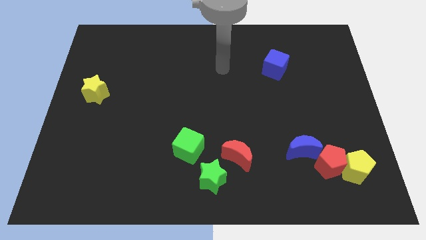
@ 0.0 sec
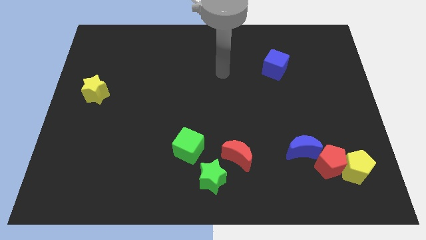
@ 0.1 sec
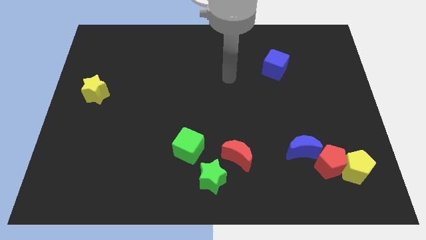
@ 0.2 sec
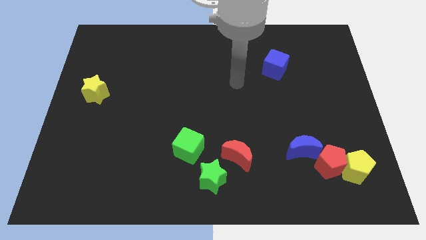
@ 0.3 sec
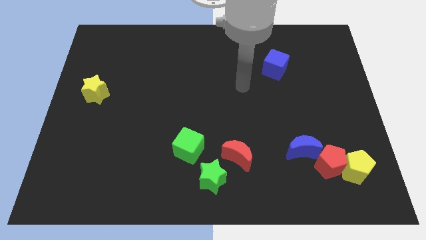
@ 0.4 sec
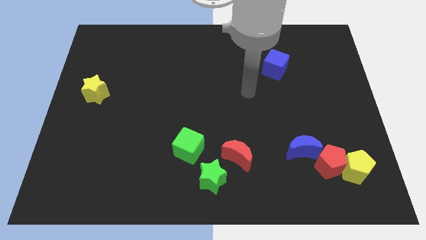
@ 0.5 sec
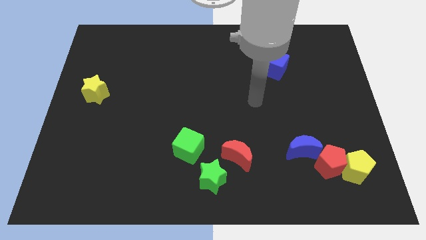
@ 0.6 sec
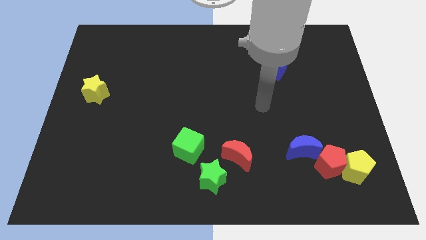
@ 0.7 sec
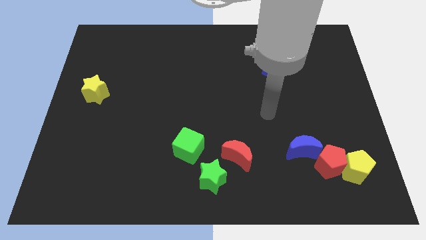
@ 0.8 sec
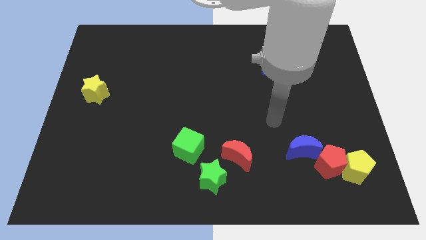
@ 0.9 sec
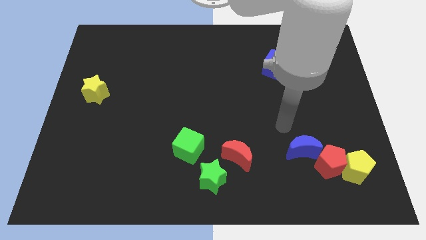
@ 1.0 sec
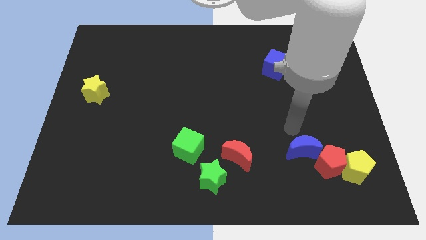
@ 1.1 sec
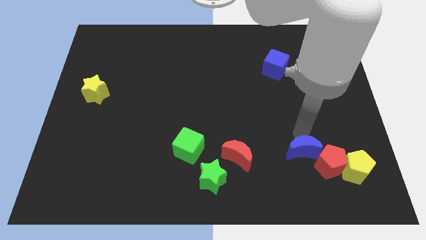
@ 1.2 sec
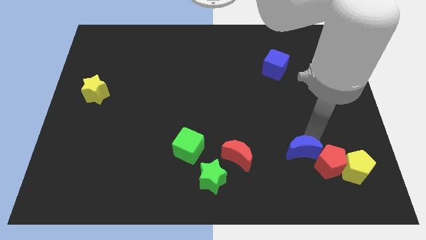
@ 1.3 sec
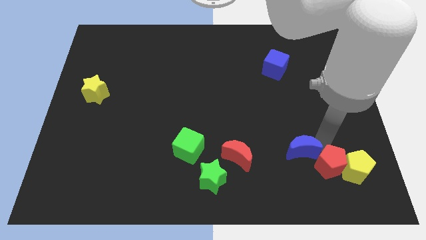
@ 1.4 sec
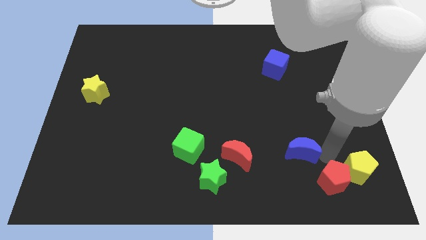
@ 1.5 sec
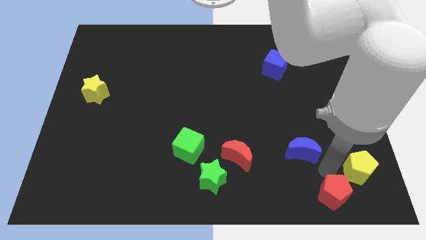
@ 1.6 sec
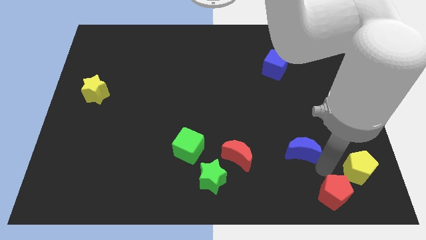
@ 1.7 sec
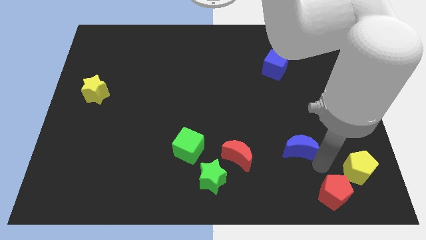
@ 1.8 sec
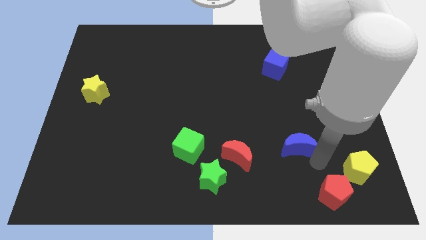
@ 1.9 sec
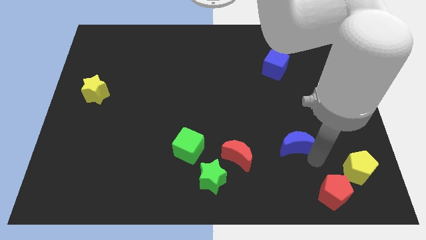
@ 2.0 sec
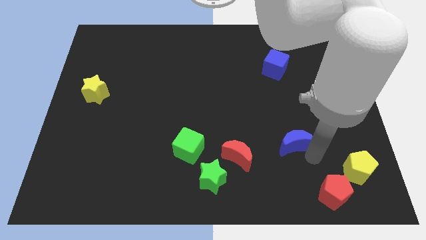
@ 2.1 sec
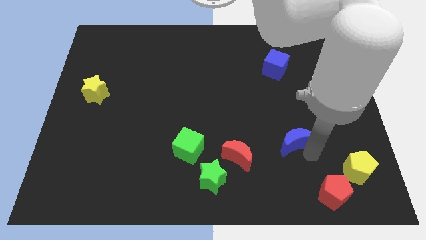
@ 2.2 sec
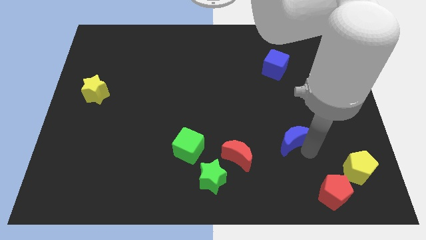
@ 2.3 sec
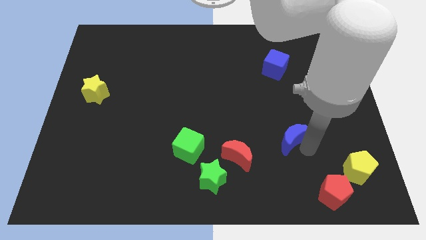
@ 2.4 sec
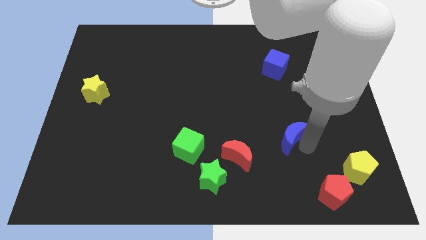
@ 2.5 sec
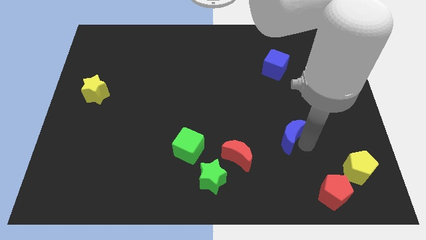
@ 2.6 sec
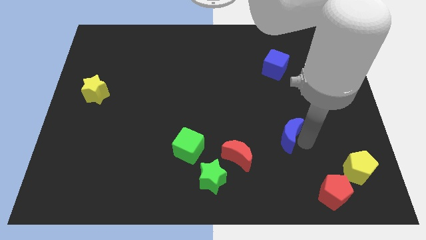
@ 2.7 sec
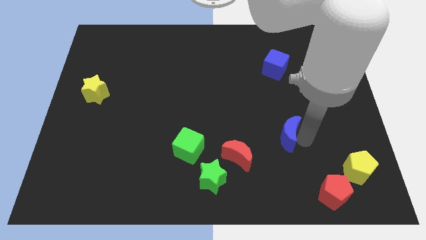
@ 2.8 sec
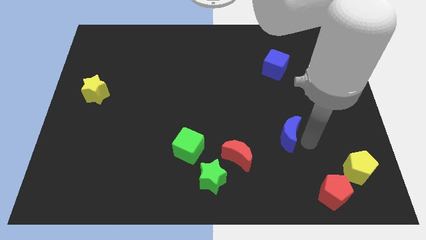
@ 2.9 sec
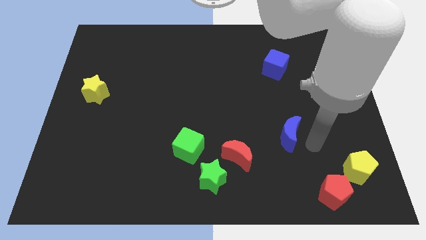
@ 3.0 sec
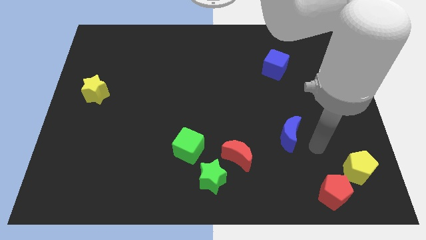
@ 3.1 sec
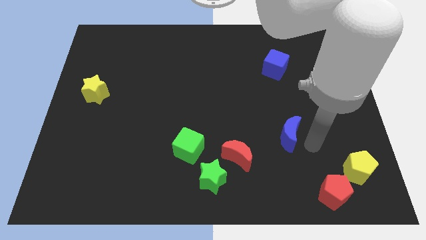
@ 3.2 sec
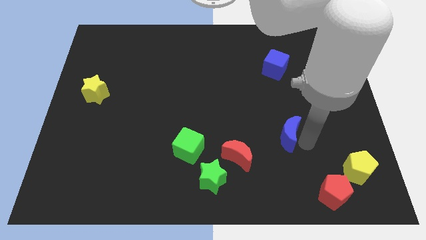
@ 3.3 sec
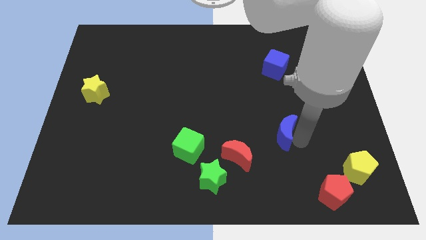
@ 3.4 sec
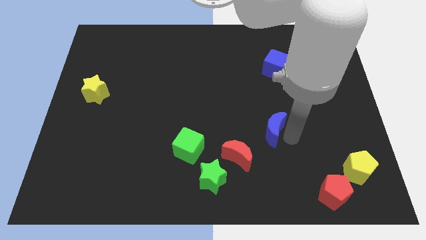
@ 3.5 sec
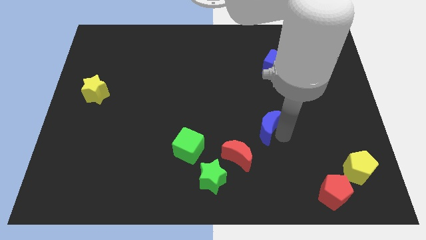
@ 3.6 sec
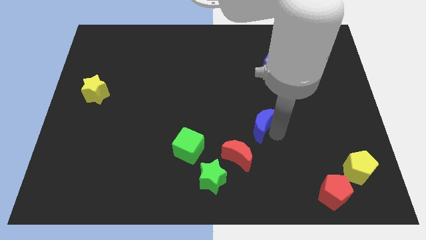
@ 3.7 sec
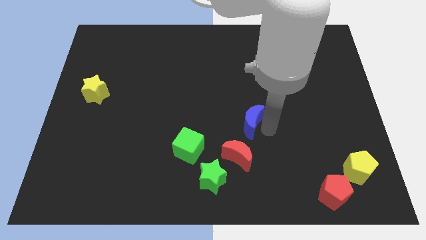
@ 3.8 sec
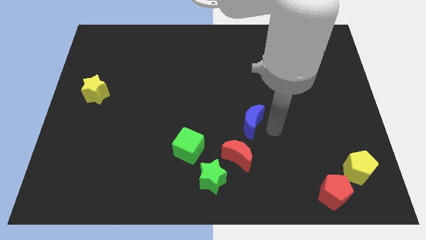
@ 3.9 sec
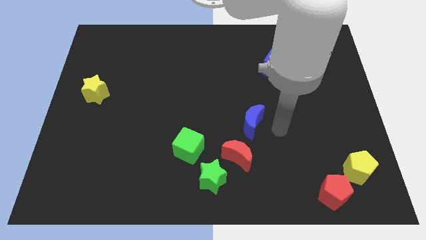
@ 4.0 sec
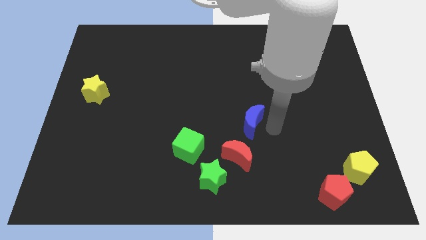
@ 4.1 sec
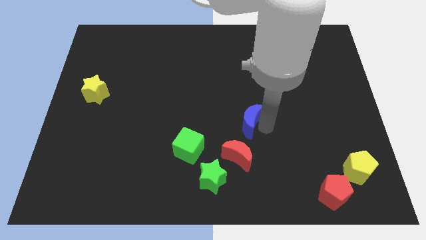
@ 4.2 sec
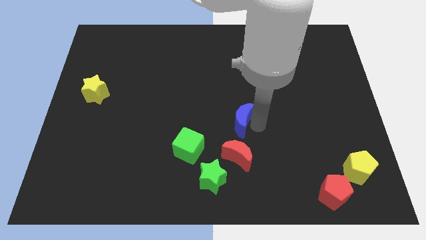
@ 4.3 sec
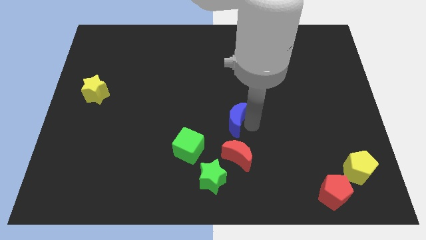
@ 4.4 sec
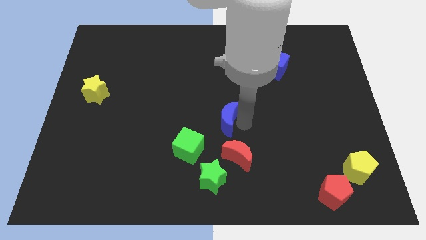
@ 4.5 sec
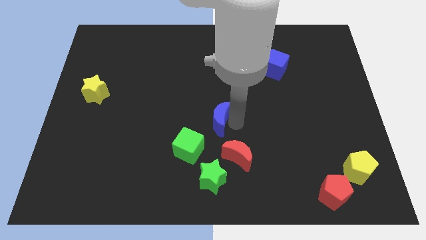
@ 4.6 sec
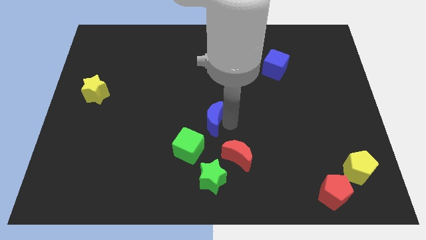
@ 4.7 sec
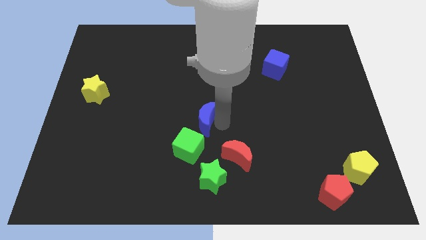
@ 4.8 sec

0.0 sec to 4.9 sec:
slide the blue moon to the top side of the green cube

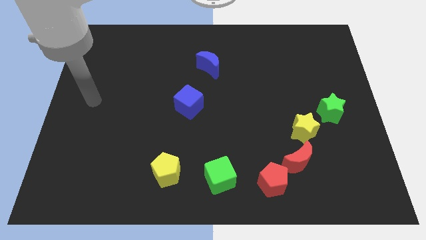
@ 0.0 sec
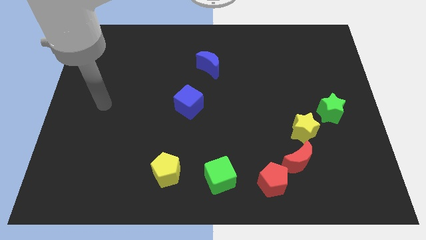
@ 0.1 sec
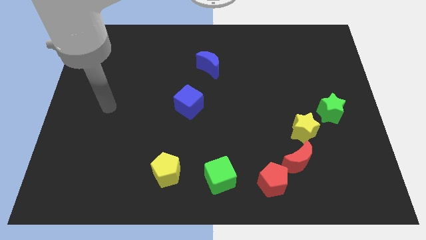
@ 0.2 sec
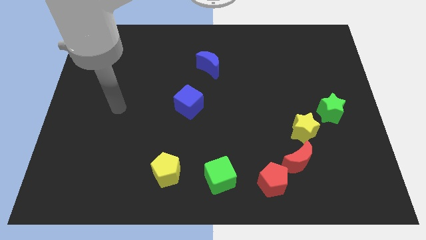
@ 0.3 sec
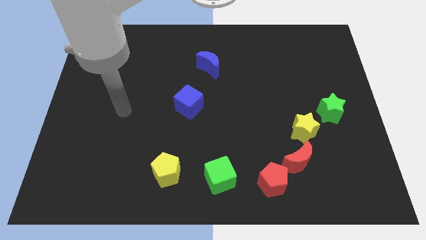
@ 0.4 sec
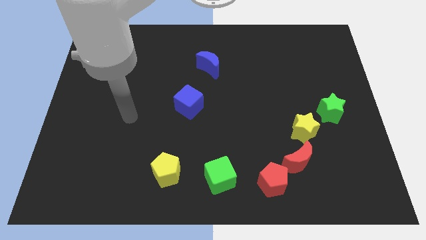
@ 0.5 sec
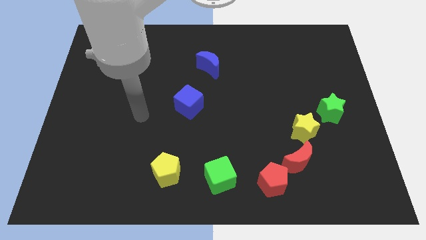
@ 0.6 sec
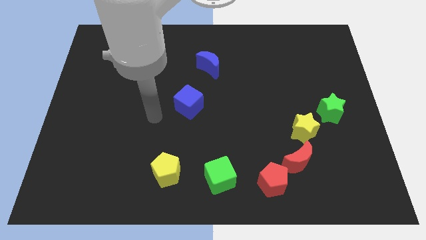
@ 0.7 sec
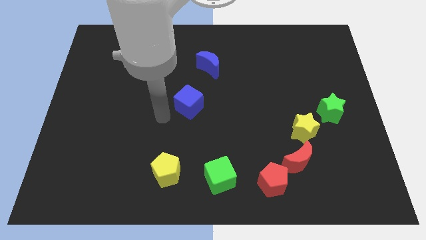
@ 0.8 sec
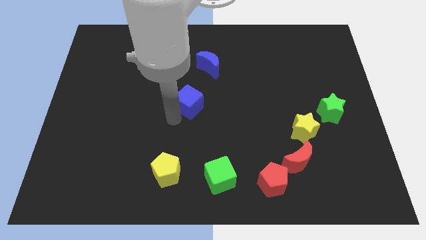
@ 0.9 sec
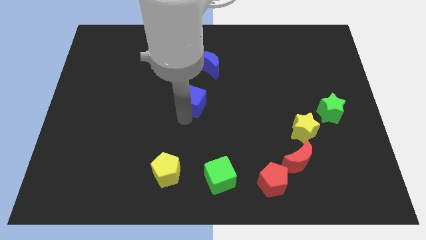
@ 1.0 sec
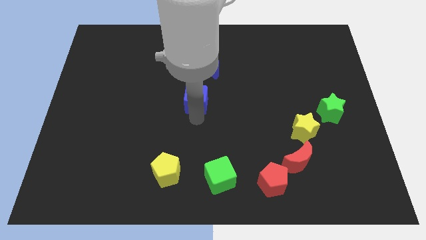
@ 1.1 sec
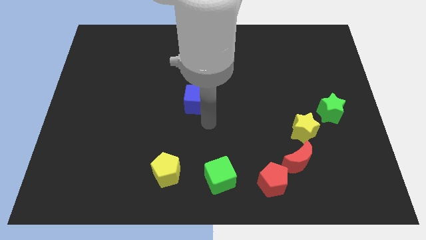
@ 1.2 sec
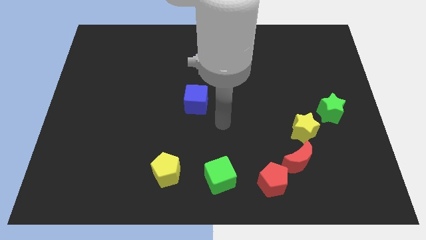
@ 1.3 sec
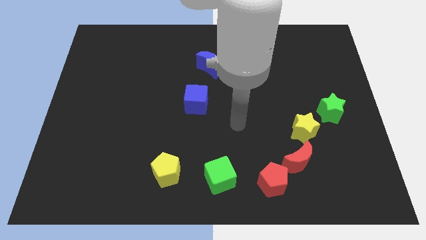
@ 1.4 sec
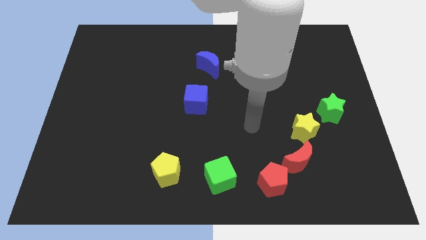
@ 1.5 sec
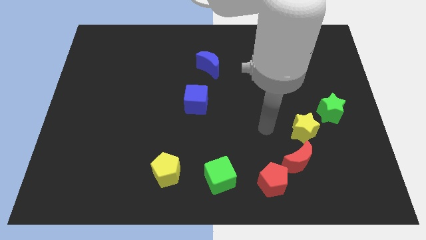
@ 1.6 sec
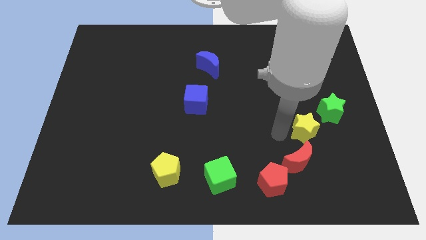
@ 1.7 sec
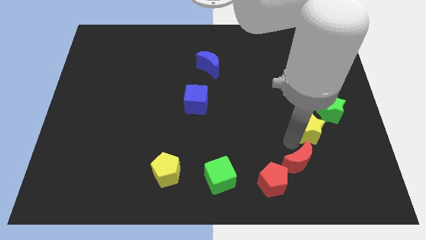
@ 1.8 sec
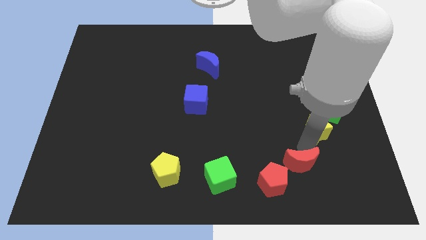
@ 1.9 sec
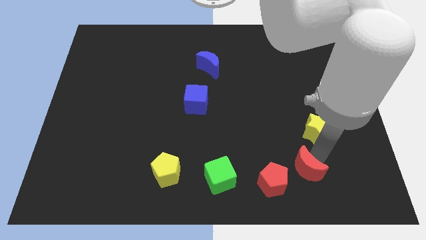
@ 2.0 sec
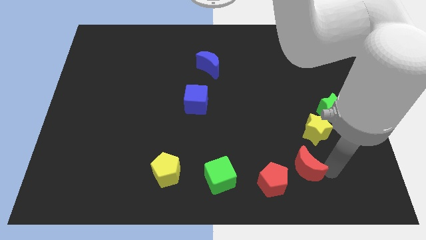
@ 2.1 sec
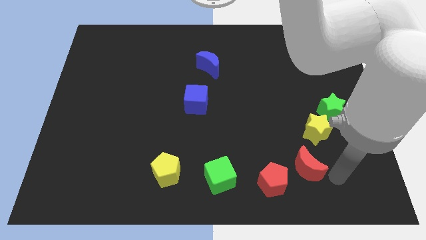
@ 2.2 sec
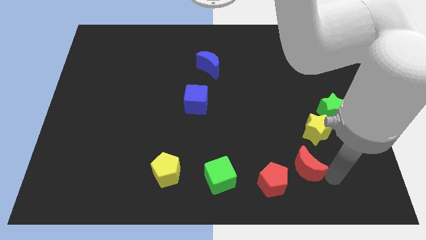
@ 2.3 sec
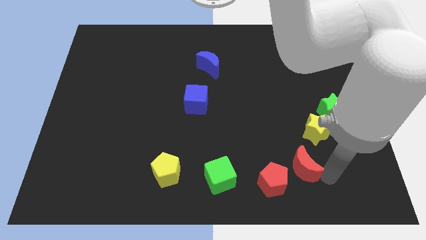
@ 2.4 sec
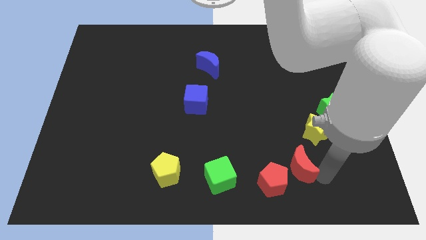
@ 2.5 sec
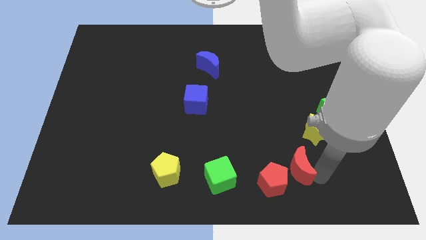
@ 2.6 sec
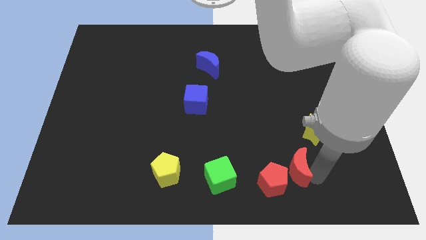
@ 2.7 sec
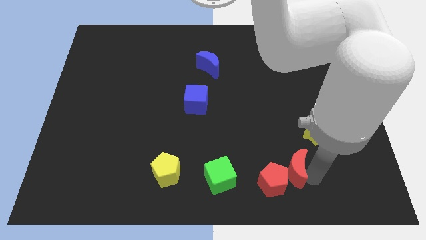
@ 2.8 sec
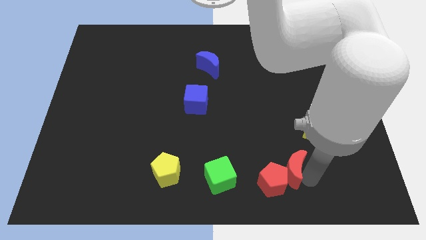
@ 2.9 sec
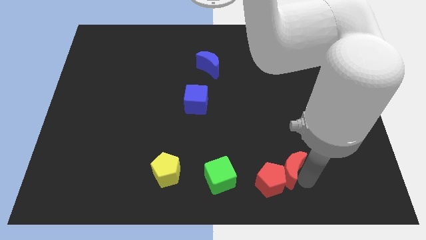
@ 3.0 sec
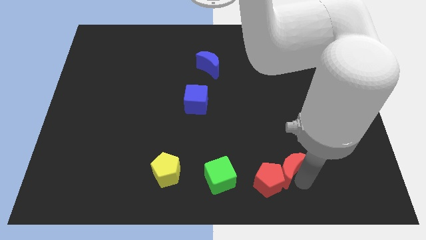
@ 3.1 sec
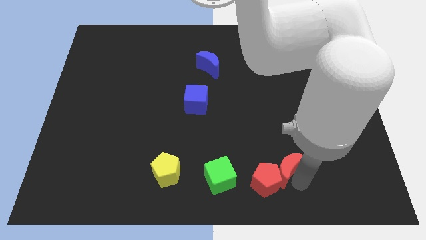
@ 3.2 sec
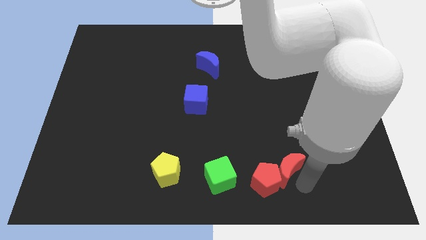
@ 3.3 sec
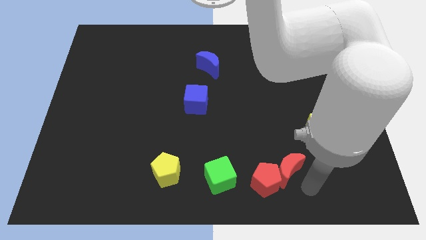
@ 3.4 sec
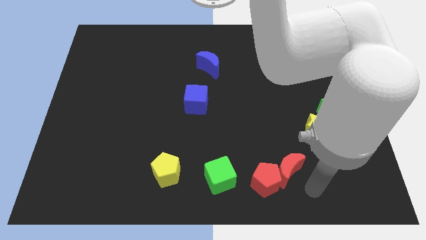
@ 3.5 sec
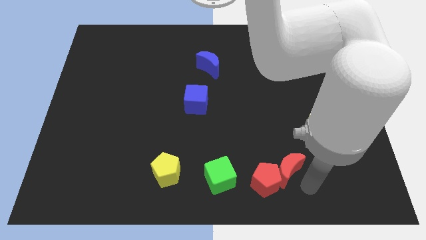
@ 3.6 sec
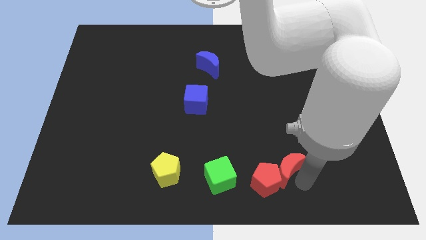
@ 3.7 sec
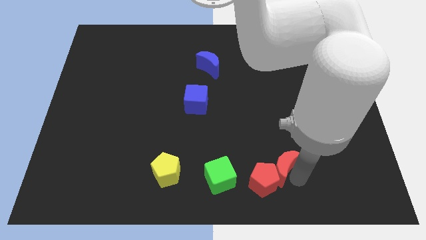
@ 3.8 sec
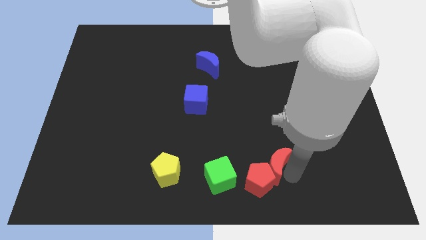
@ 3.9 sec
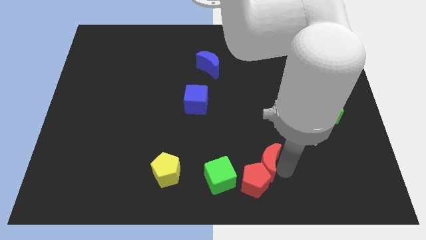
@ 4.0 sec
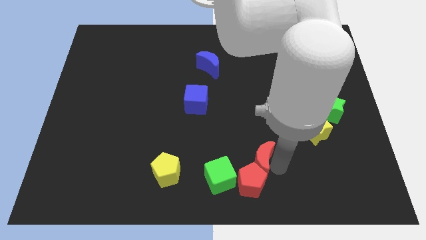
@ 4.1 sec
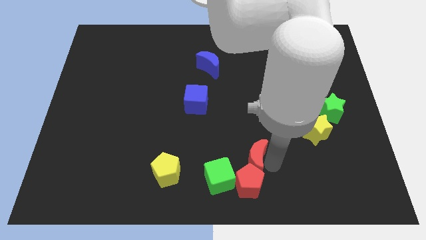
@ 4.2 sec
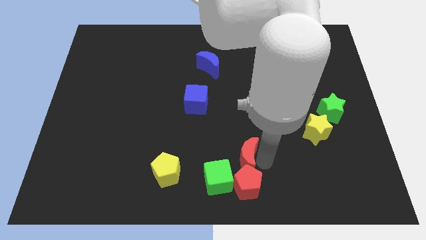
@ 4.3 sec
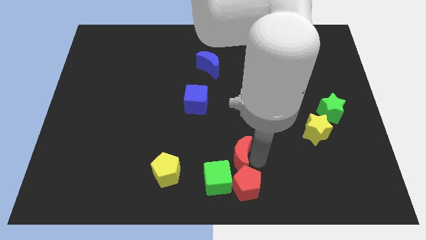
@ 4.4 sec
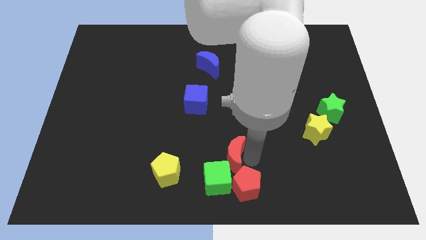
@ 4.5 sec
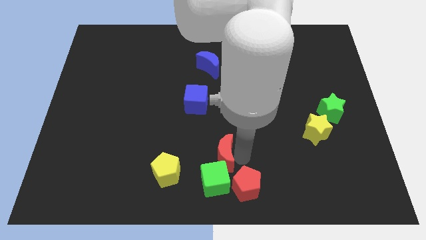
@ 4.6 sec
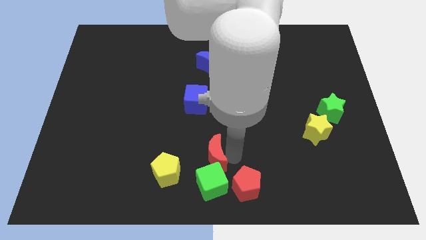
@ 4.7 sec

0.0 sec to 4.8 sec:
push the red moon to the top right of the yellow pentagon
